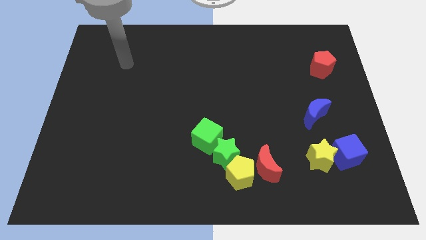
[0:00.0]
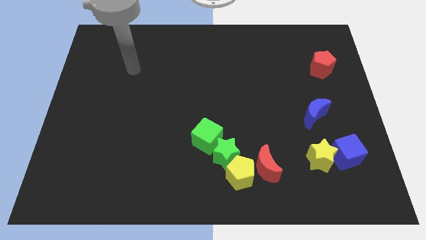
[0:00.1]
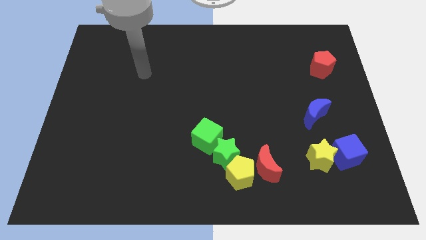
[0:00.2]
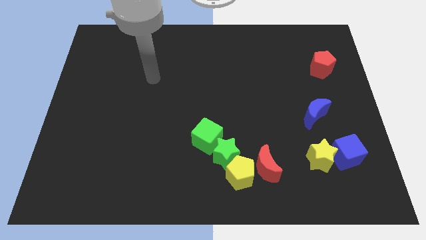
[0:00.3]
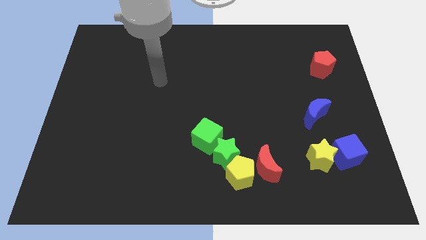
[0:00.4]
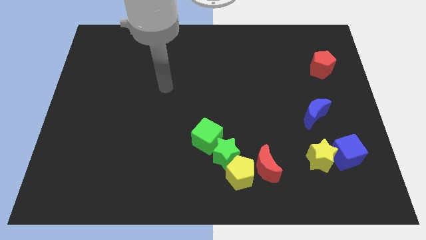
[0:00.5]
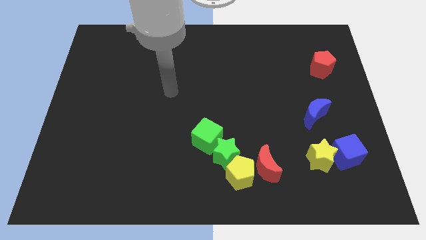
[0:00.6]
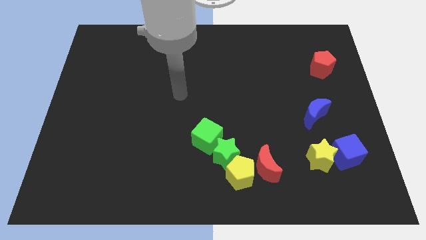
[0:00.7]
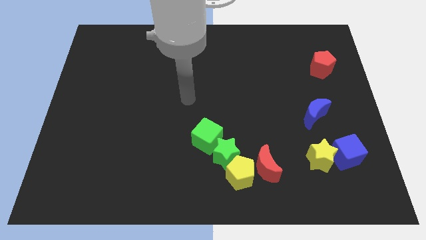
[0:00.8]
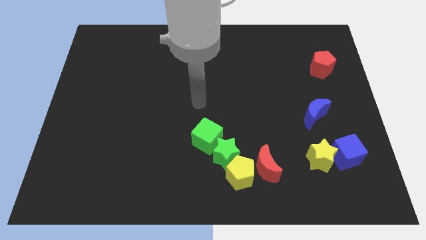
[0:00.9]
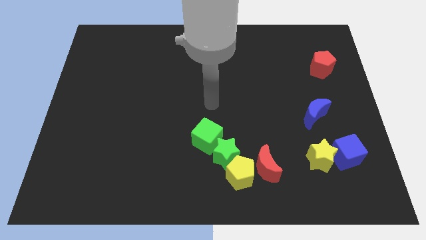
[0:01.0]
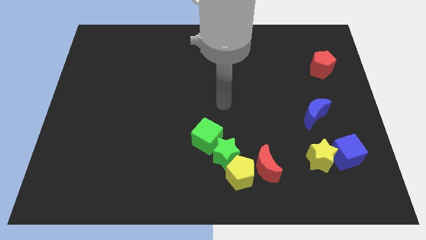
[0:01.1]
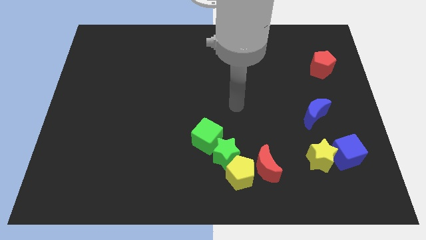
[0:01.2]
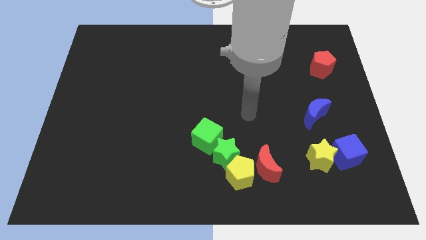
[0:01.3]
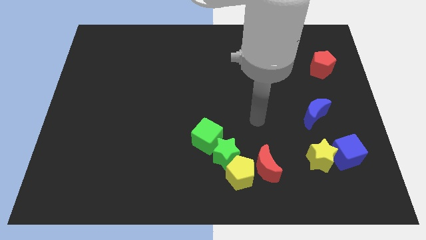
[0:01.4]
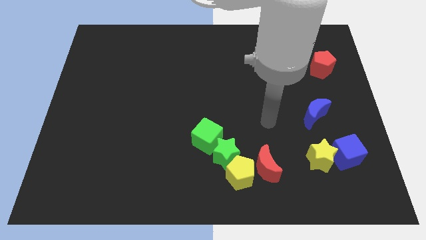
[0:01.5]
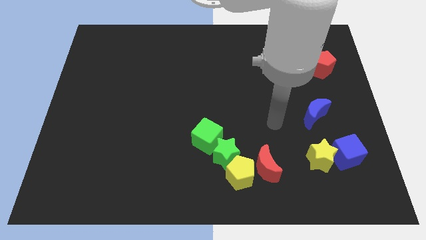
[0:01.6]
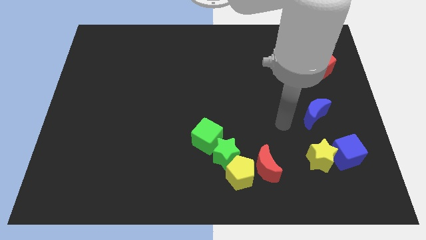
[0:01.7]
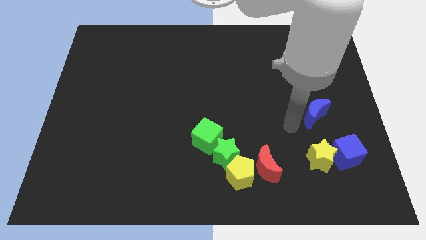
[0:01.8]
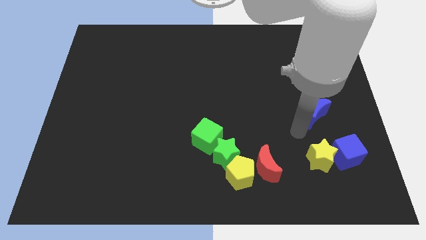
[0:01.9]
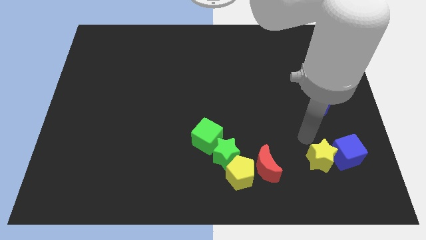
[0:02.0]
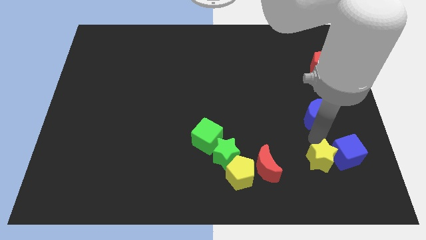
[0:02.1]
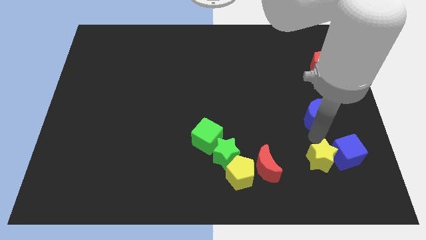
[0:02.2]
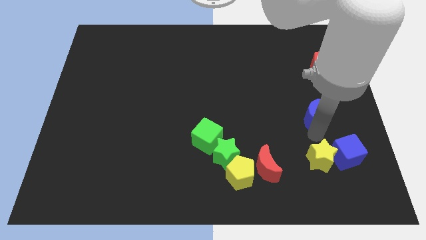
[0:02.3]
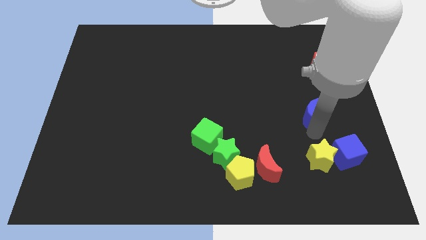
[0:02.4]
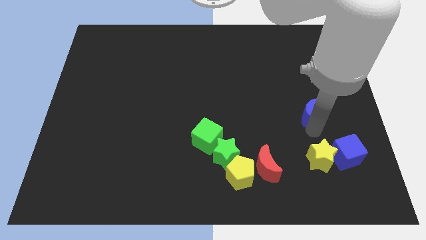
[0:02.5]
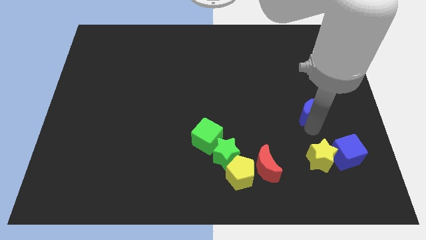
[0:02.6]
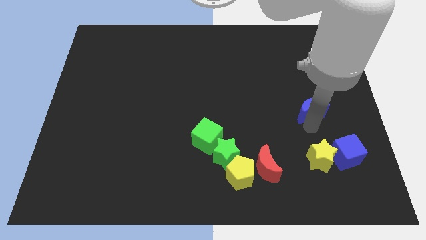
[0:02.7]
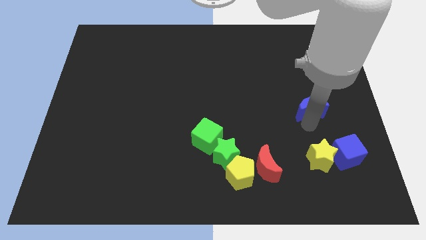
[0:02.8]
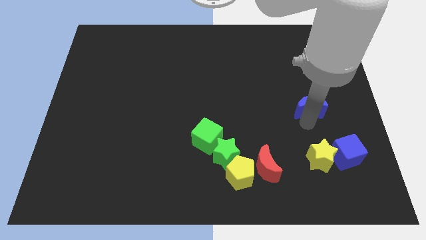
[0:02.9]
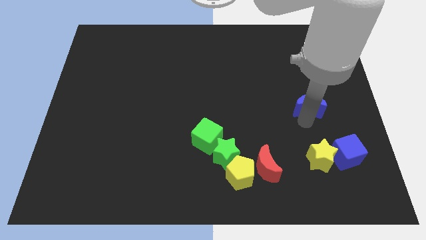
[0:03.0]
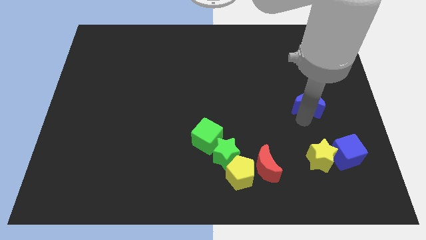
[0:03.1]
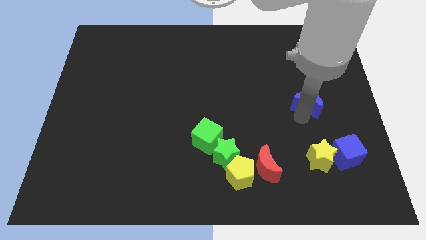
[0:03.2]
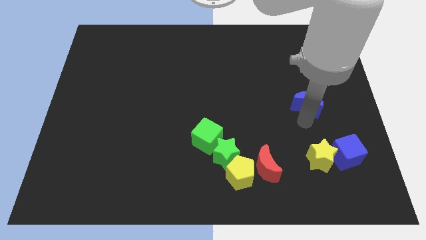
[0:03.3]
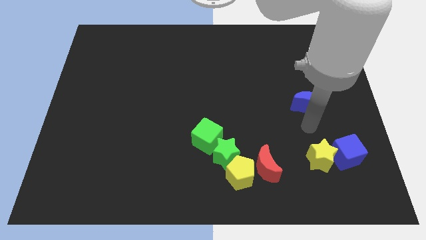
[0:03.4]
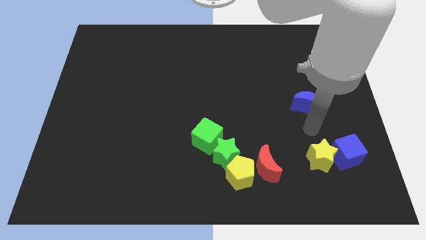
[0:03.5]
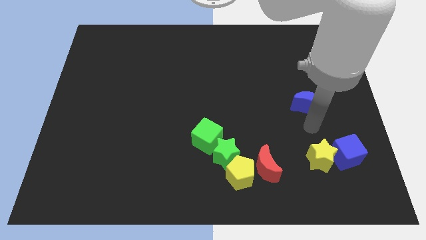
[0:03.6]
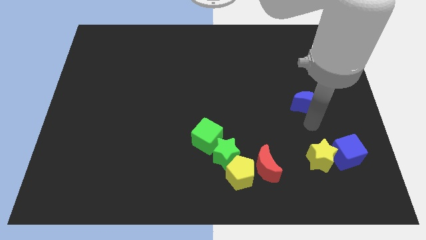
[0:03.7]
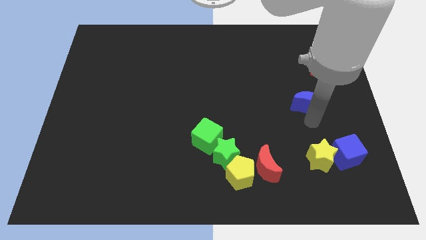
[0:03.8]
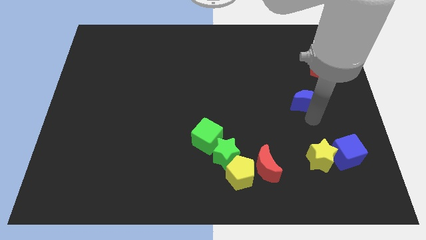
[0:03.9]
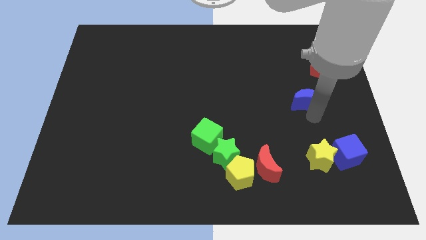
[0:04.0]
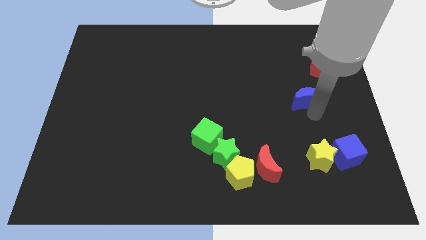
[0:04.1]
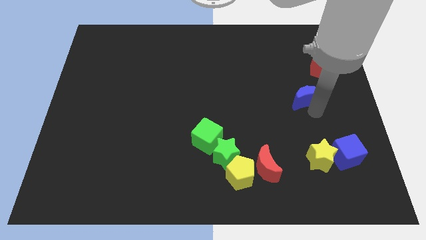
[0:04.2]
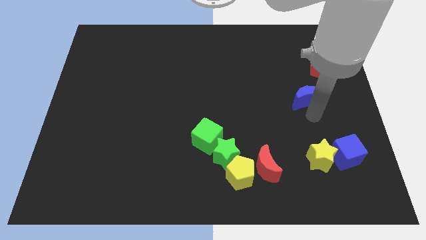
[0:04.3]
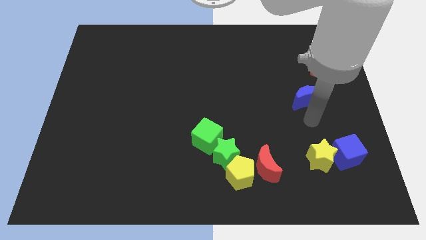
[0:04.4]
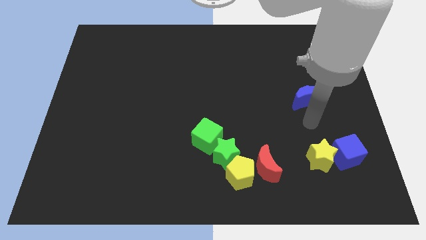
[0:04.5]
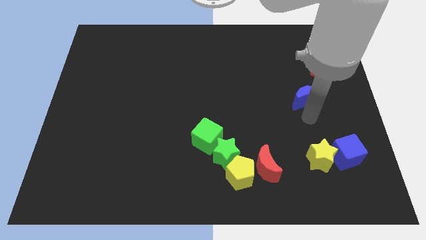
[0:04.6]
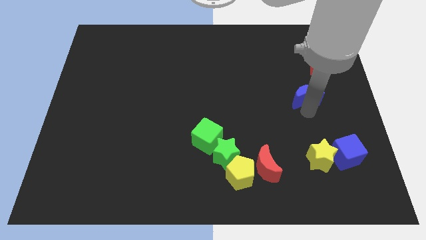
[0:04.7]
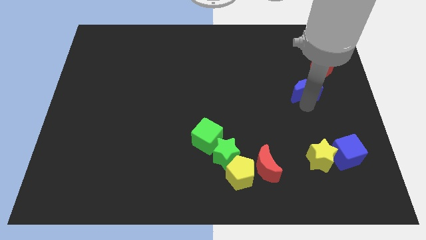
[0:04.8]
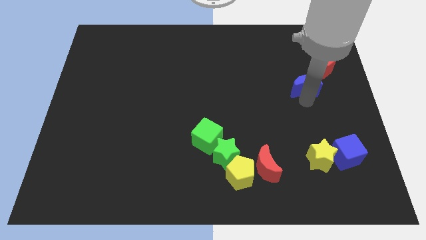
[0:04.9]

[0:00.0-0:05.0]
slightly move the blue moon up

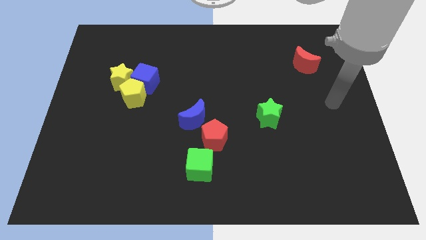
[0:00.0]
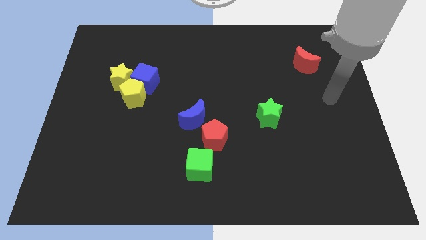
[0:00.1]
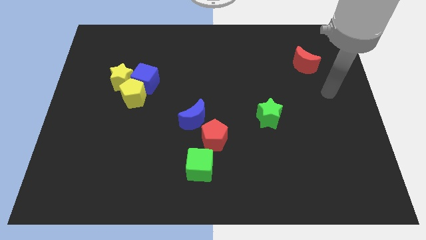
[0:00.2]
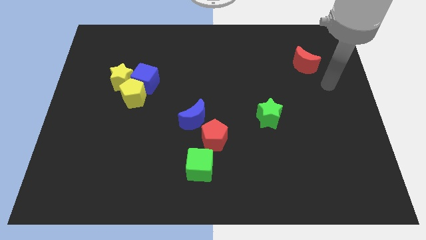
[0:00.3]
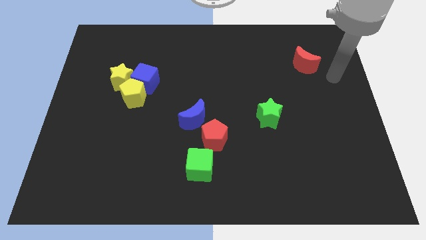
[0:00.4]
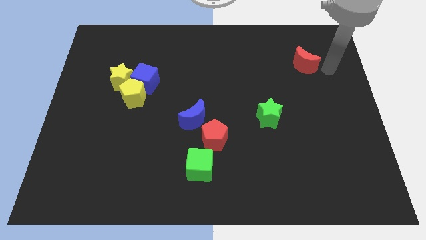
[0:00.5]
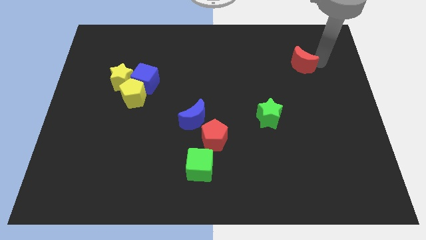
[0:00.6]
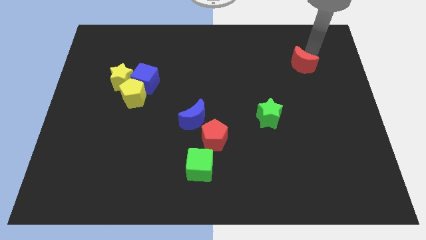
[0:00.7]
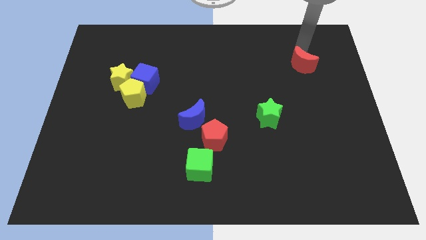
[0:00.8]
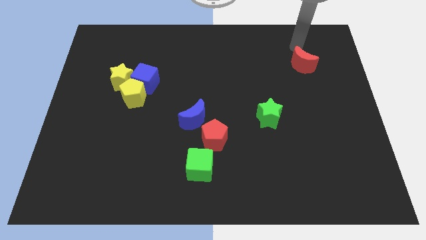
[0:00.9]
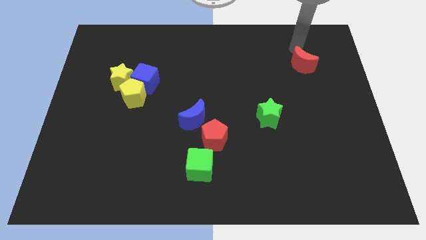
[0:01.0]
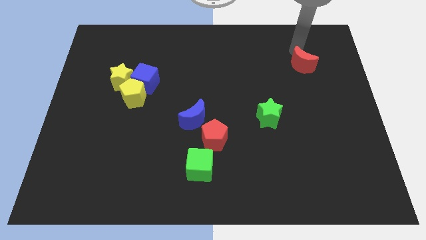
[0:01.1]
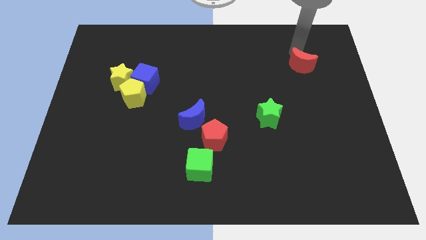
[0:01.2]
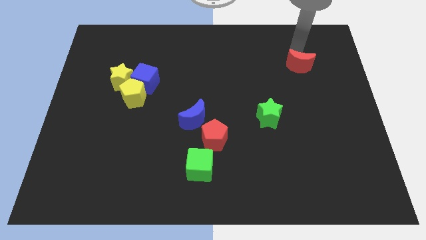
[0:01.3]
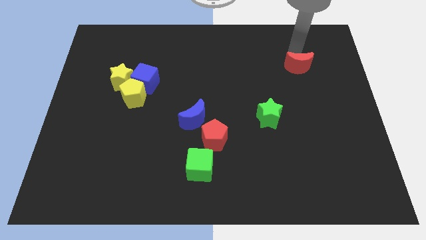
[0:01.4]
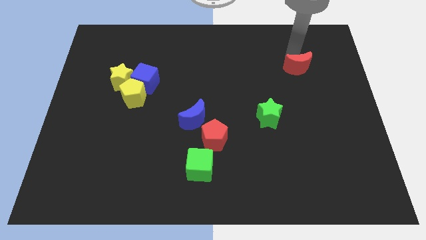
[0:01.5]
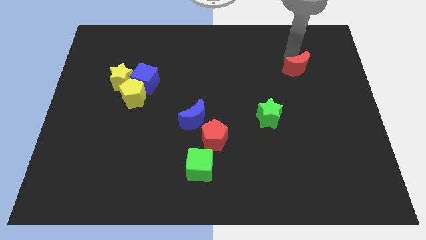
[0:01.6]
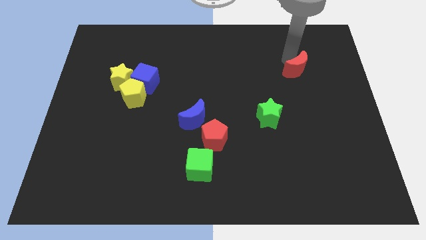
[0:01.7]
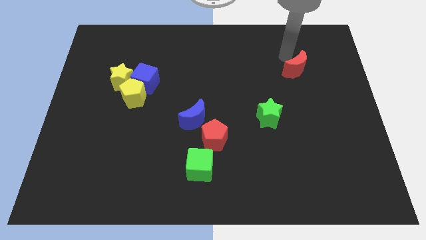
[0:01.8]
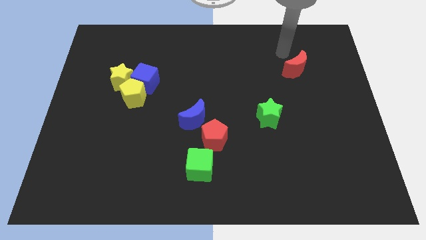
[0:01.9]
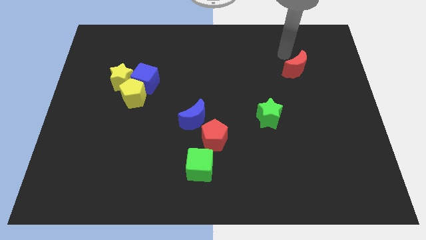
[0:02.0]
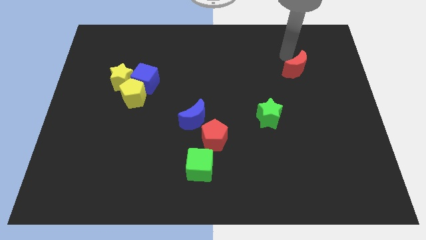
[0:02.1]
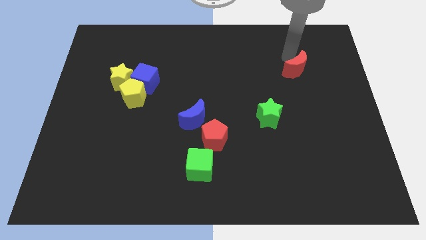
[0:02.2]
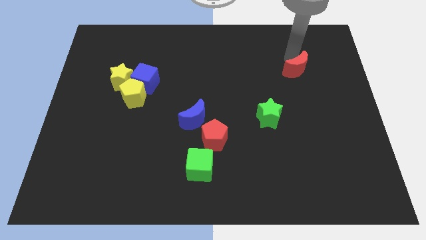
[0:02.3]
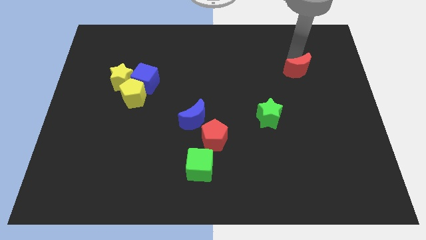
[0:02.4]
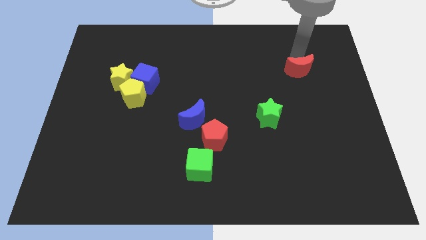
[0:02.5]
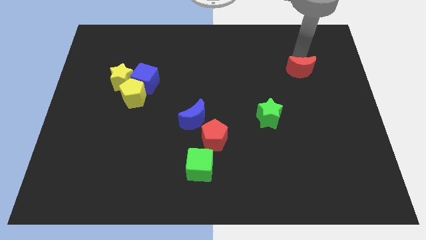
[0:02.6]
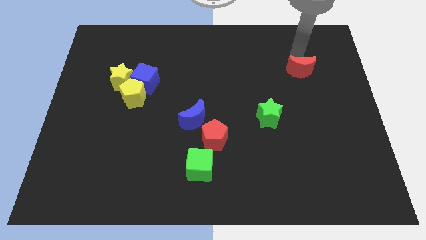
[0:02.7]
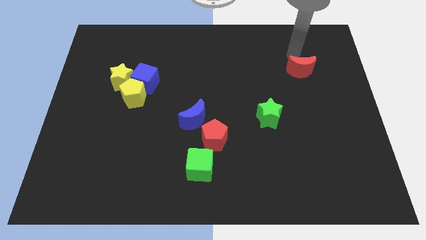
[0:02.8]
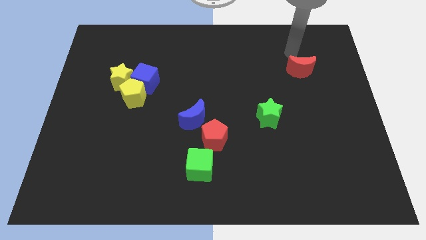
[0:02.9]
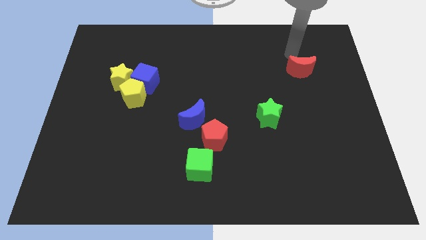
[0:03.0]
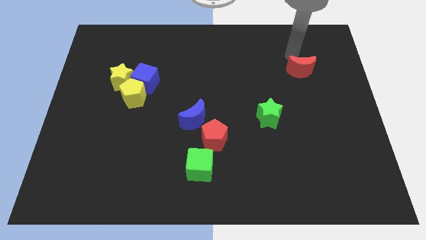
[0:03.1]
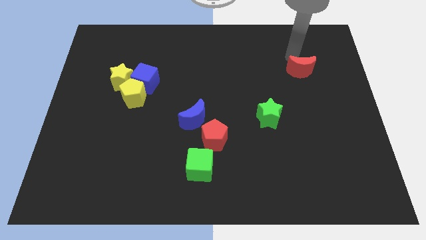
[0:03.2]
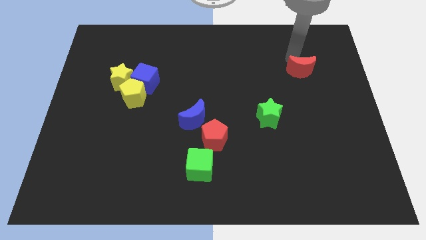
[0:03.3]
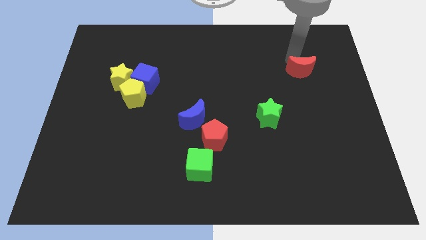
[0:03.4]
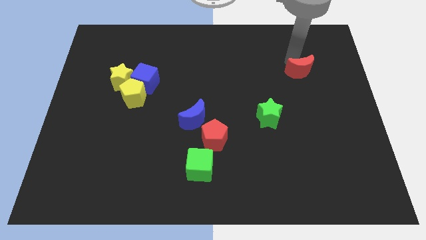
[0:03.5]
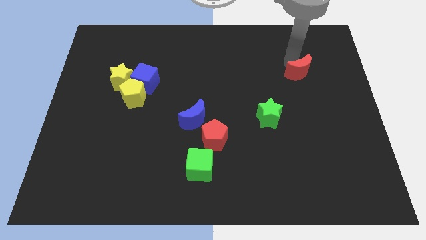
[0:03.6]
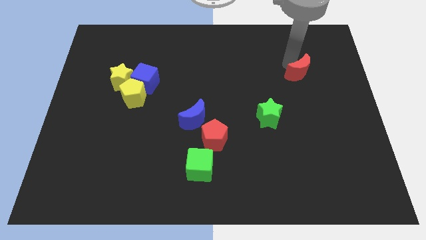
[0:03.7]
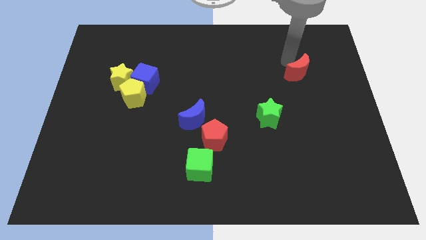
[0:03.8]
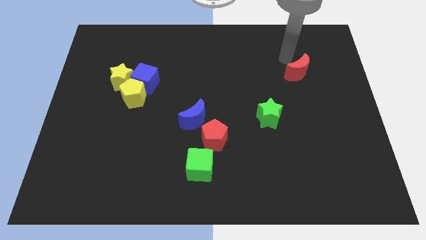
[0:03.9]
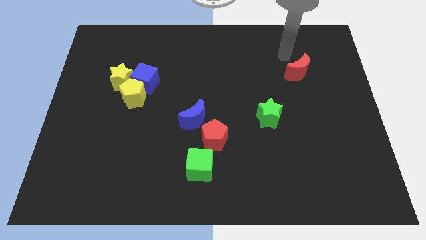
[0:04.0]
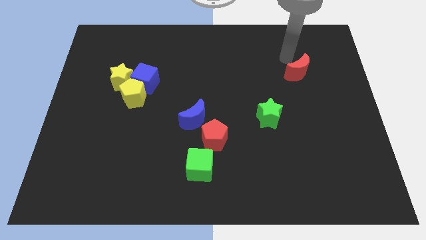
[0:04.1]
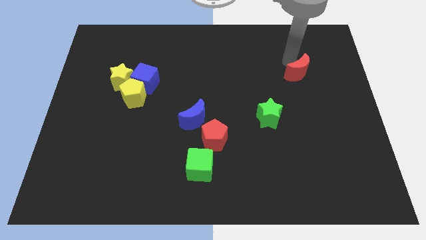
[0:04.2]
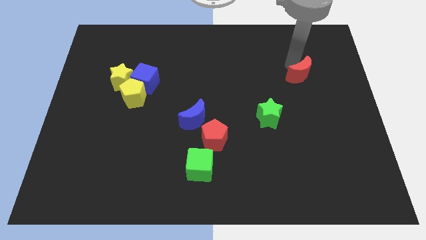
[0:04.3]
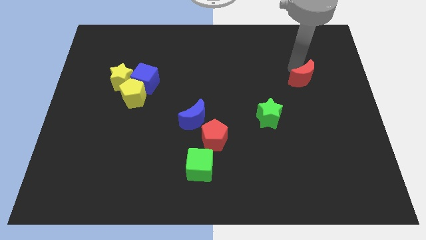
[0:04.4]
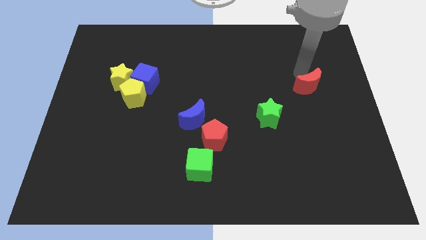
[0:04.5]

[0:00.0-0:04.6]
move the red moon somewhat down
